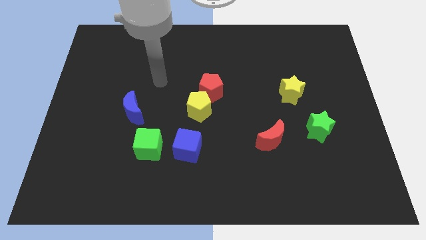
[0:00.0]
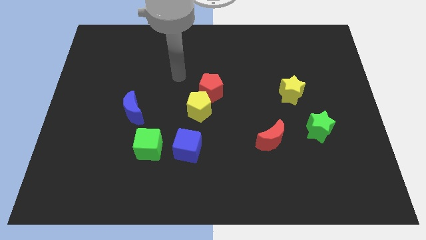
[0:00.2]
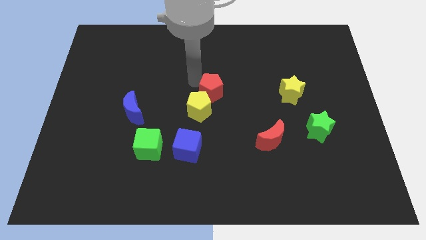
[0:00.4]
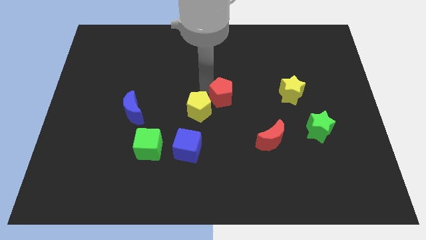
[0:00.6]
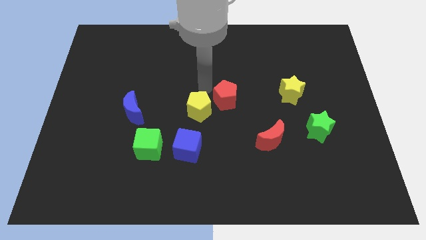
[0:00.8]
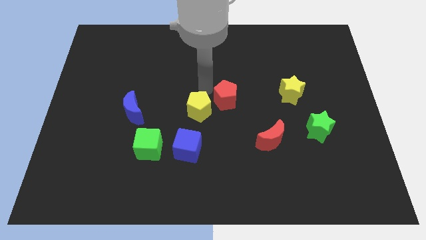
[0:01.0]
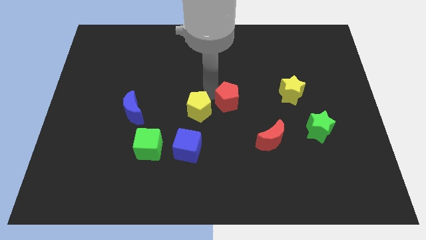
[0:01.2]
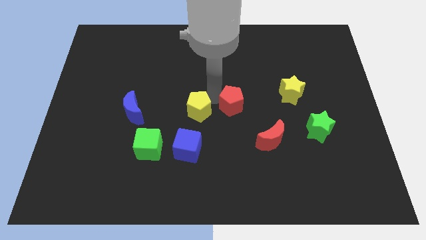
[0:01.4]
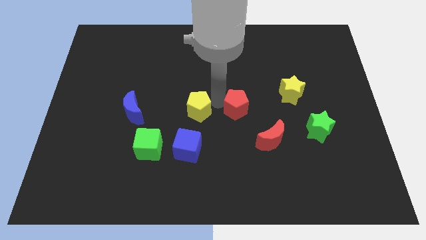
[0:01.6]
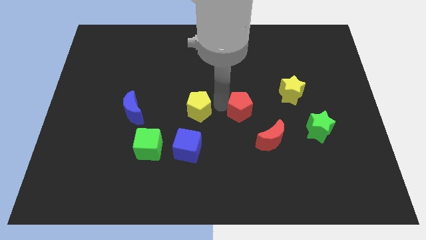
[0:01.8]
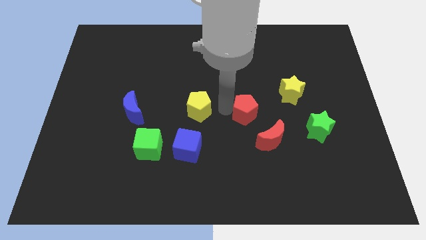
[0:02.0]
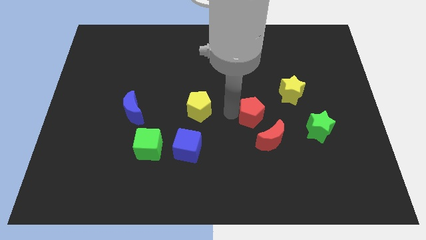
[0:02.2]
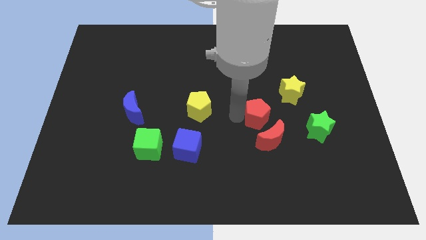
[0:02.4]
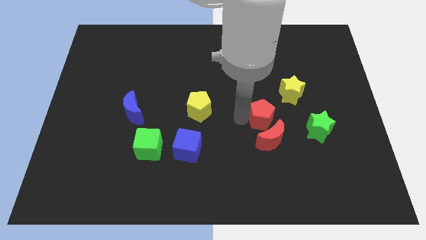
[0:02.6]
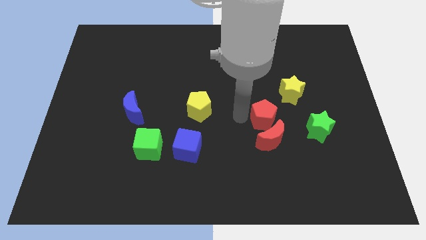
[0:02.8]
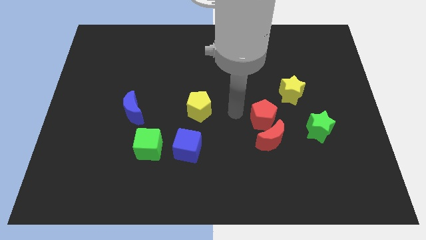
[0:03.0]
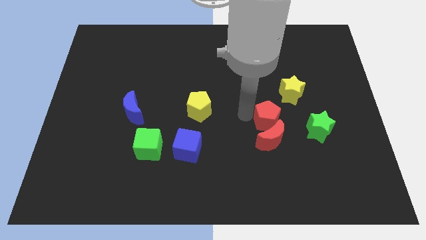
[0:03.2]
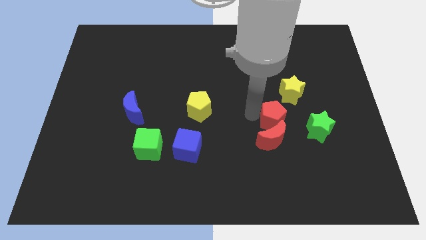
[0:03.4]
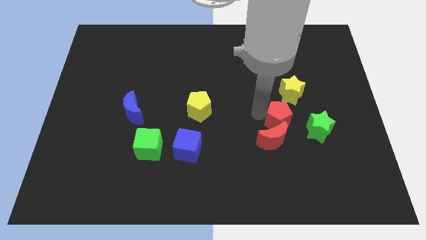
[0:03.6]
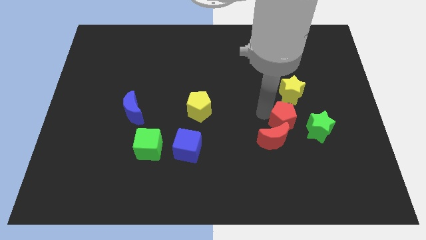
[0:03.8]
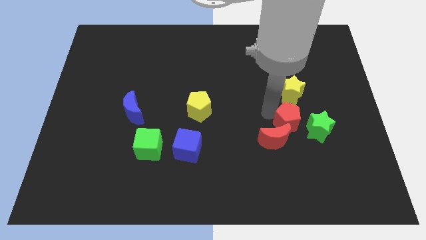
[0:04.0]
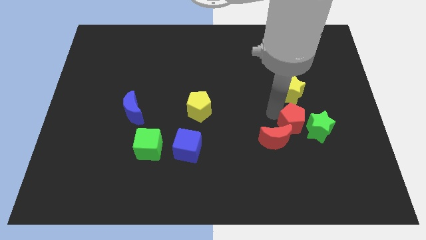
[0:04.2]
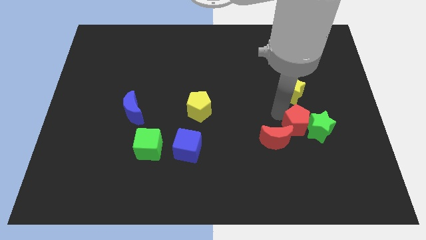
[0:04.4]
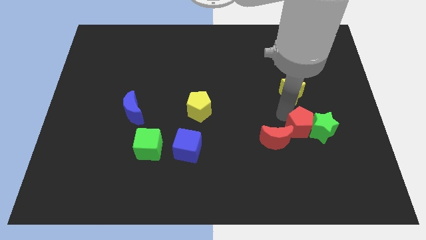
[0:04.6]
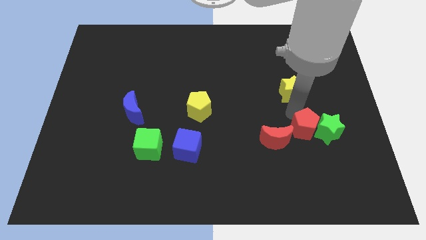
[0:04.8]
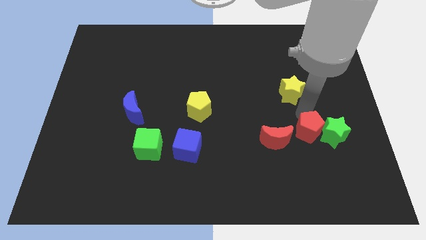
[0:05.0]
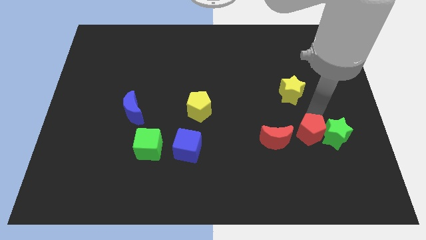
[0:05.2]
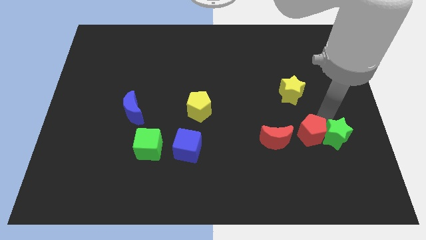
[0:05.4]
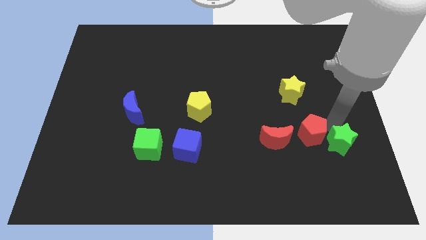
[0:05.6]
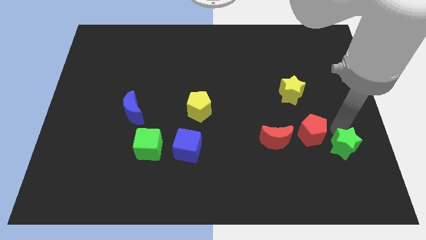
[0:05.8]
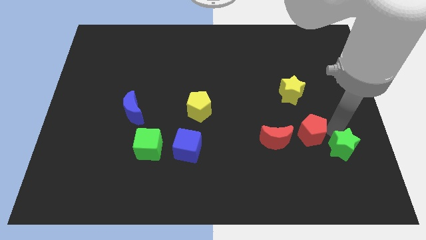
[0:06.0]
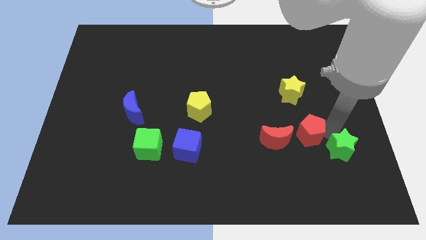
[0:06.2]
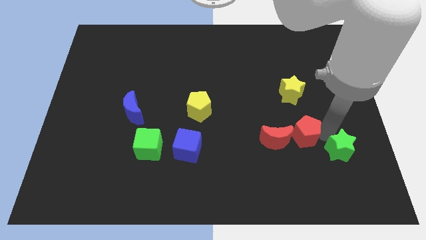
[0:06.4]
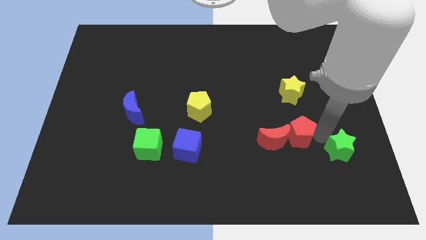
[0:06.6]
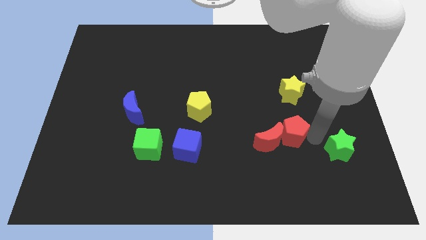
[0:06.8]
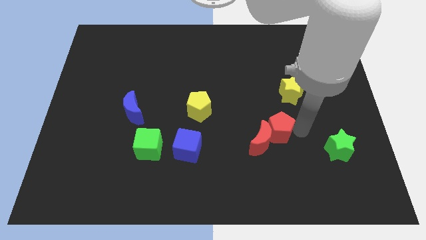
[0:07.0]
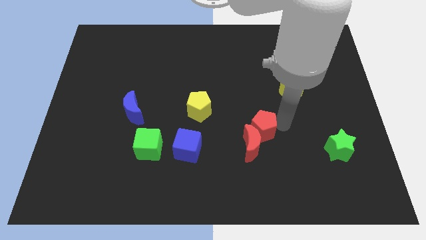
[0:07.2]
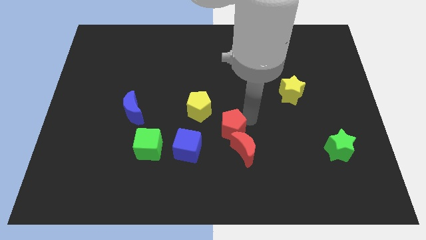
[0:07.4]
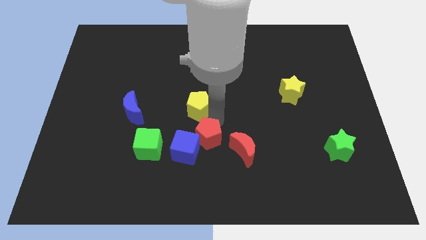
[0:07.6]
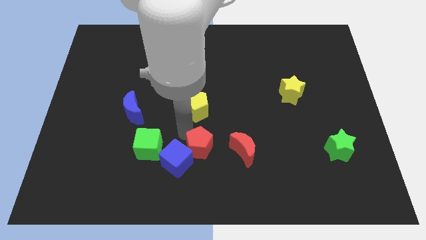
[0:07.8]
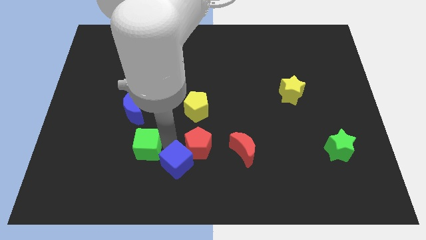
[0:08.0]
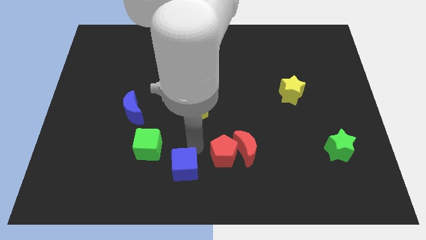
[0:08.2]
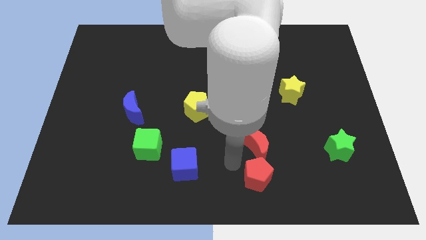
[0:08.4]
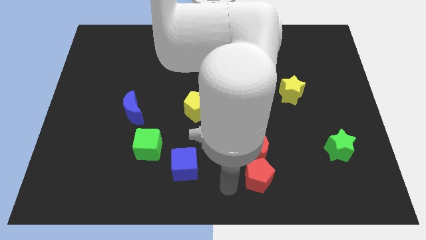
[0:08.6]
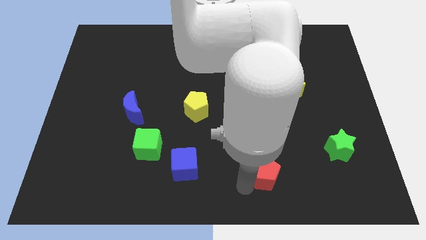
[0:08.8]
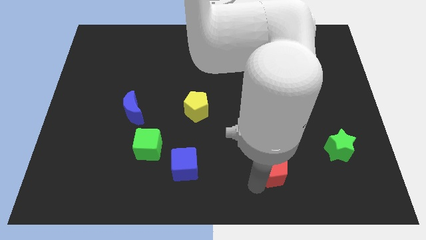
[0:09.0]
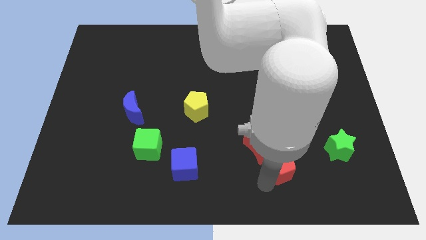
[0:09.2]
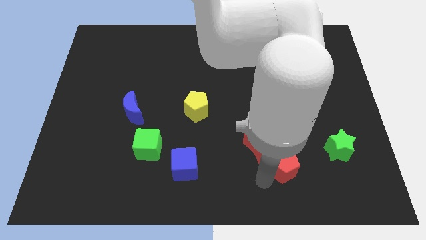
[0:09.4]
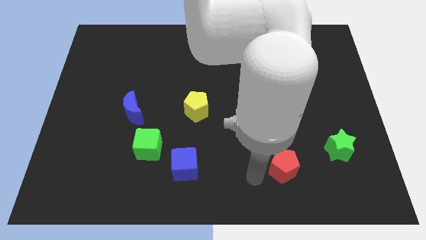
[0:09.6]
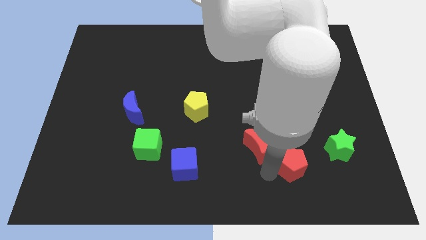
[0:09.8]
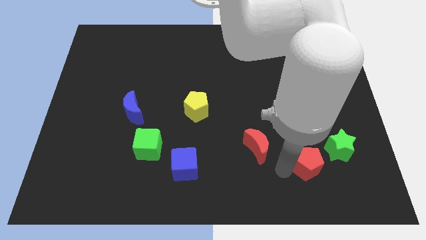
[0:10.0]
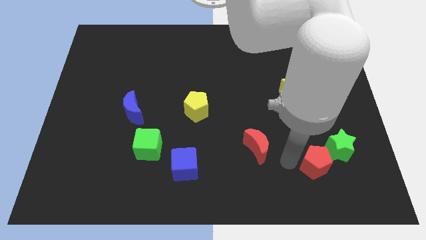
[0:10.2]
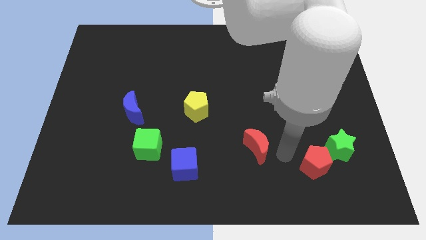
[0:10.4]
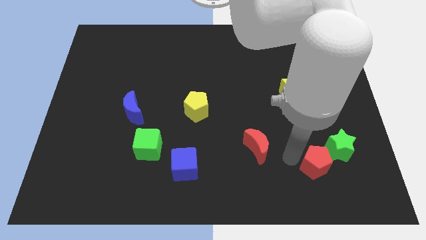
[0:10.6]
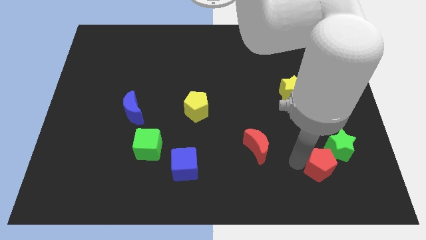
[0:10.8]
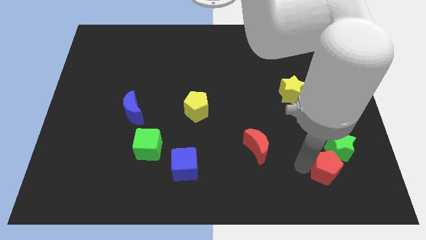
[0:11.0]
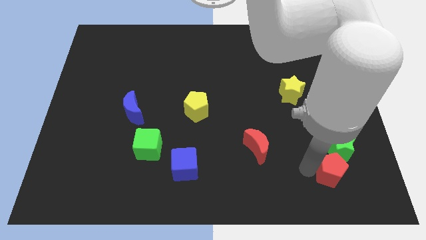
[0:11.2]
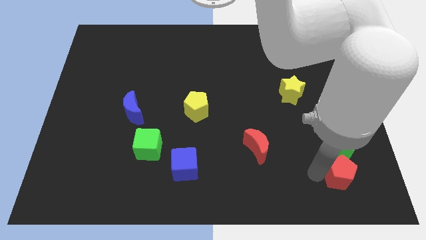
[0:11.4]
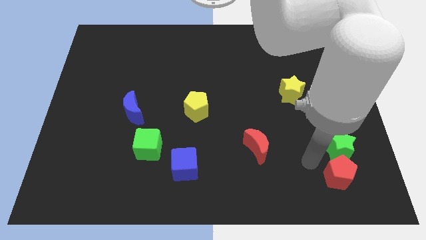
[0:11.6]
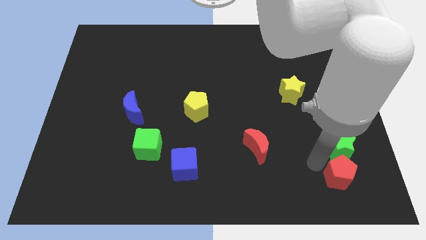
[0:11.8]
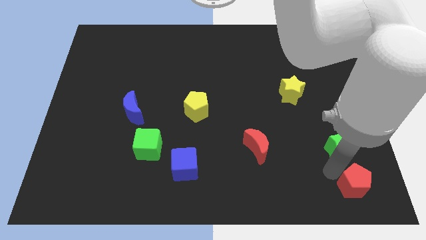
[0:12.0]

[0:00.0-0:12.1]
push the red pentagon to the bottom right of the board
